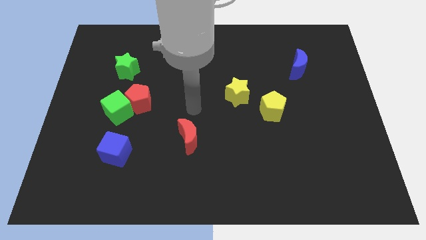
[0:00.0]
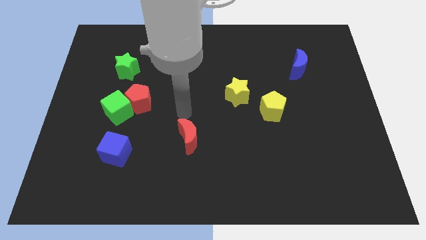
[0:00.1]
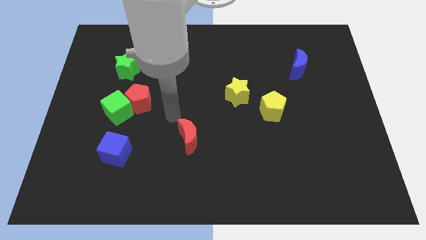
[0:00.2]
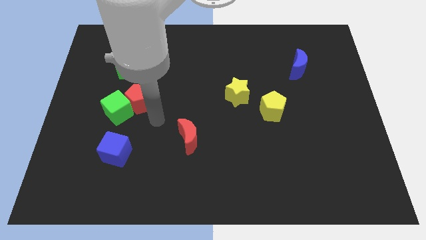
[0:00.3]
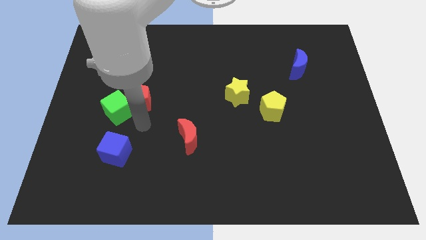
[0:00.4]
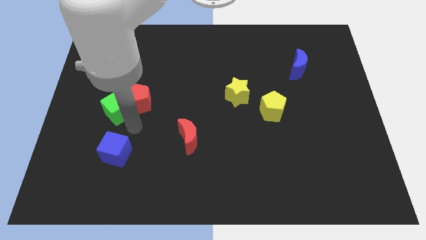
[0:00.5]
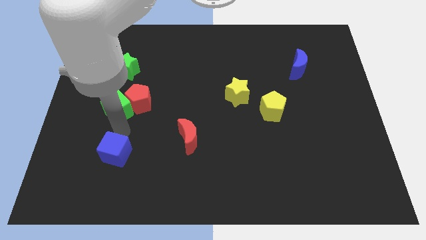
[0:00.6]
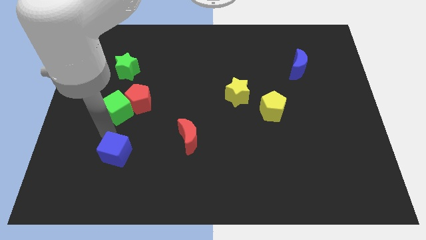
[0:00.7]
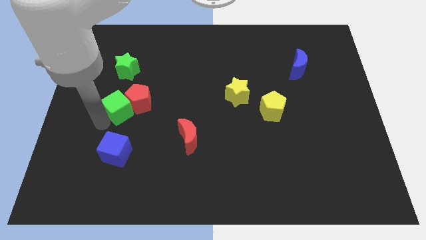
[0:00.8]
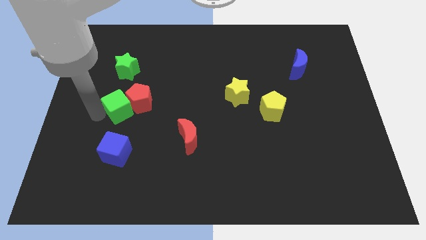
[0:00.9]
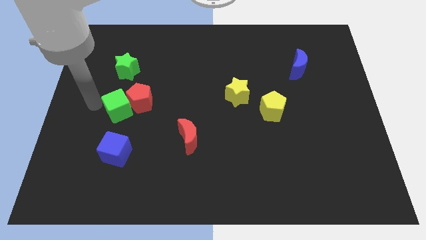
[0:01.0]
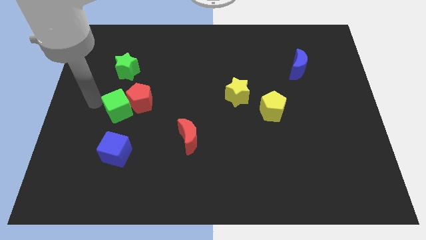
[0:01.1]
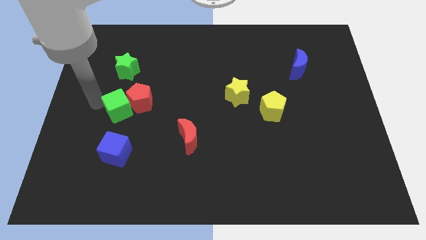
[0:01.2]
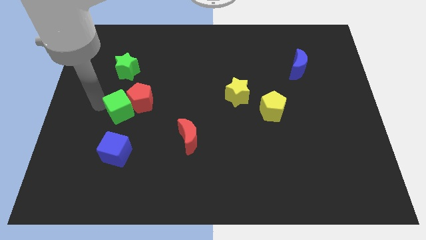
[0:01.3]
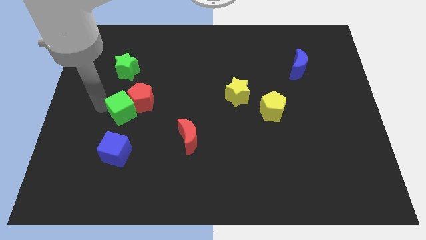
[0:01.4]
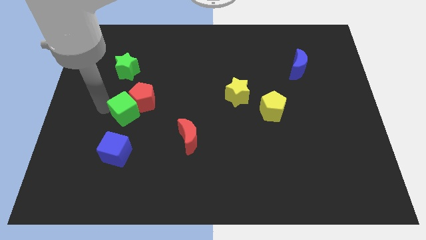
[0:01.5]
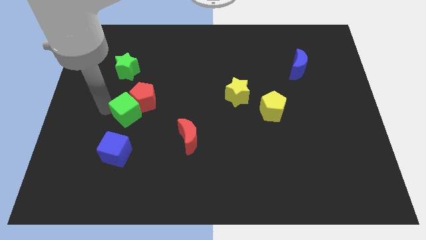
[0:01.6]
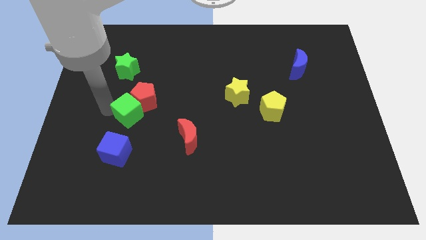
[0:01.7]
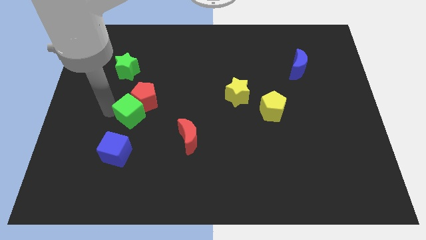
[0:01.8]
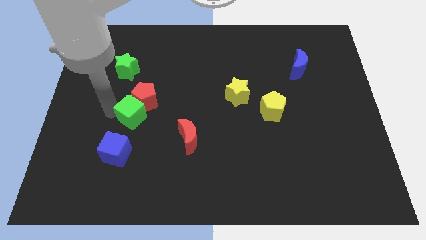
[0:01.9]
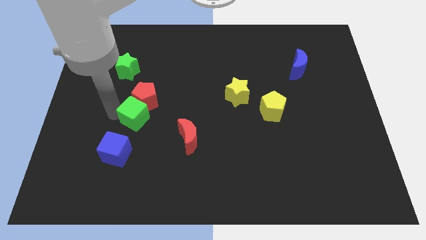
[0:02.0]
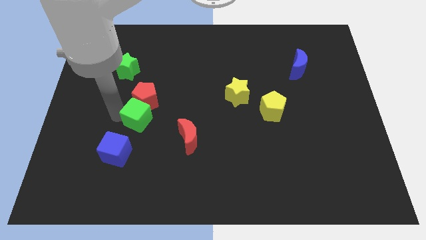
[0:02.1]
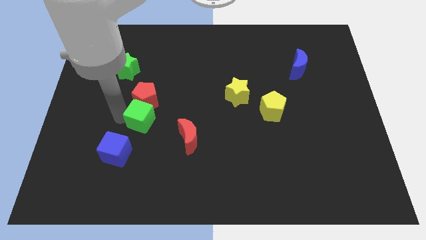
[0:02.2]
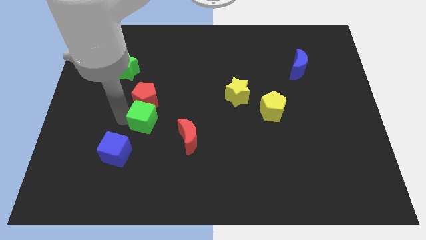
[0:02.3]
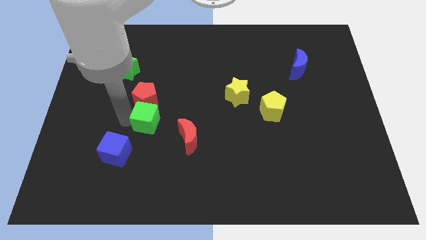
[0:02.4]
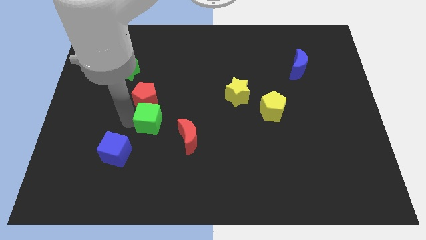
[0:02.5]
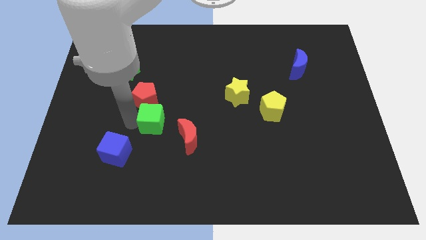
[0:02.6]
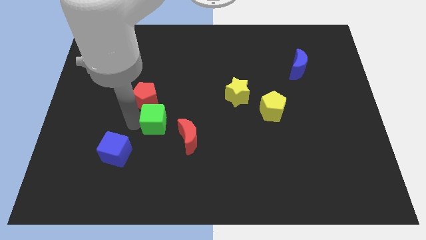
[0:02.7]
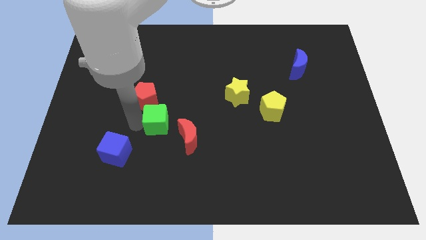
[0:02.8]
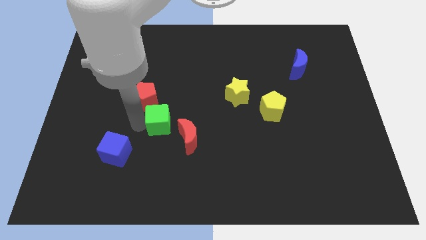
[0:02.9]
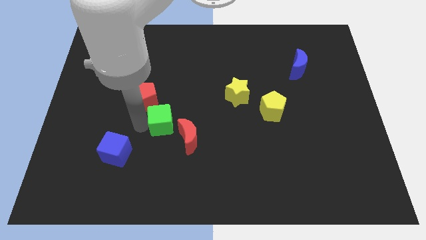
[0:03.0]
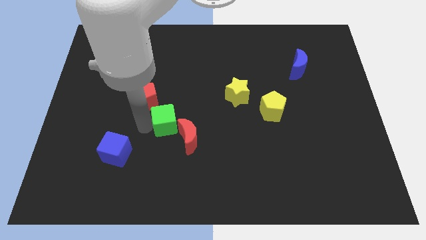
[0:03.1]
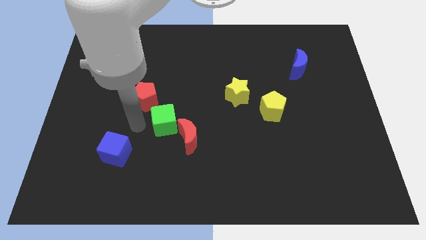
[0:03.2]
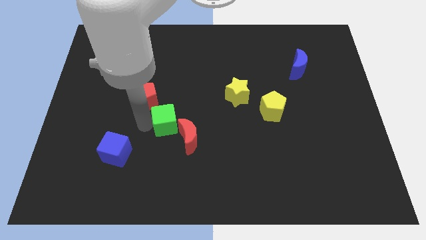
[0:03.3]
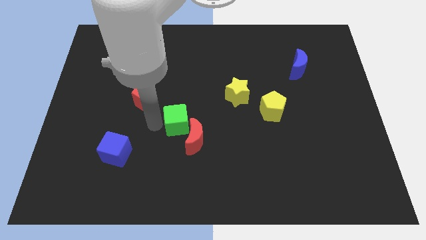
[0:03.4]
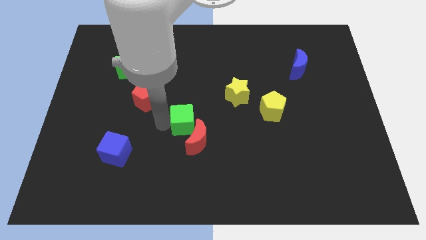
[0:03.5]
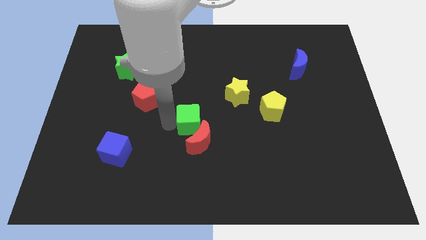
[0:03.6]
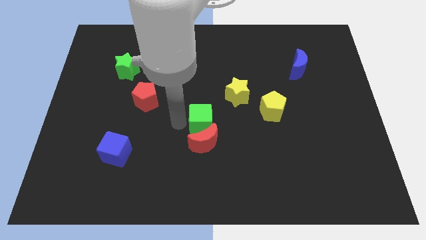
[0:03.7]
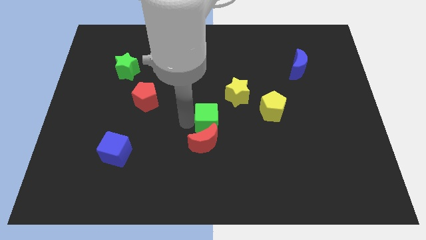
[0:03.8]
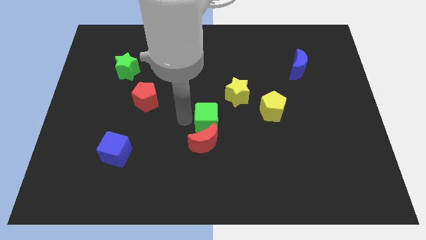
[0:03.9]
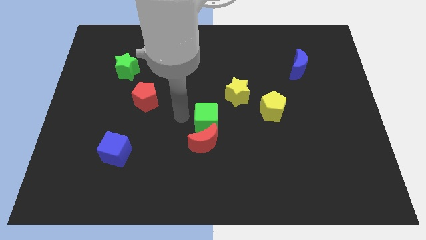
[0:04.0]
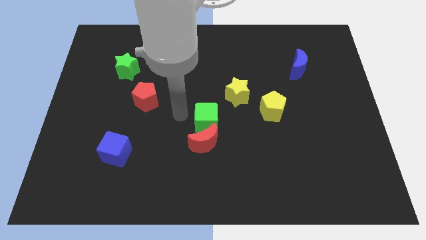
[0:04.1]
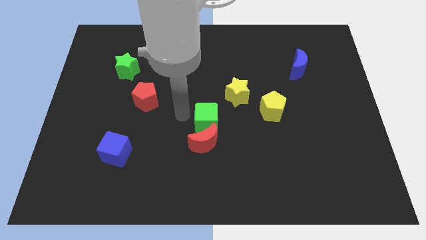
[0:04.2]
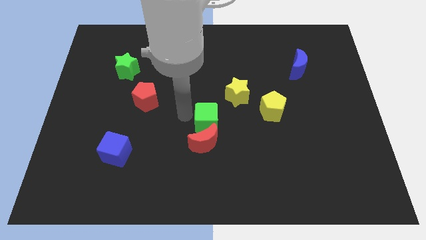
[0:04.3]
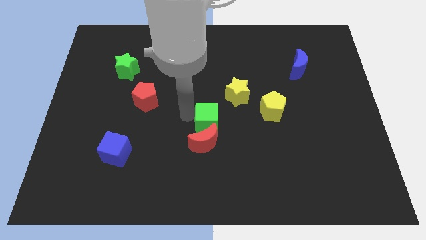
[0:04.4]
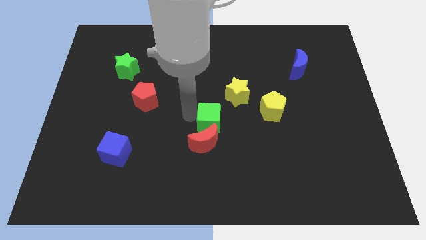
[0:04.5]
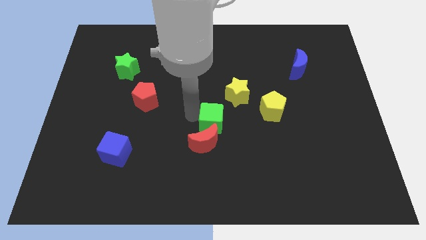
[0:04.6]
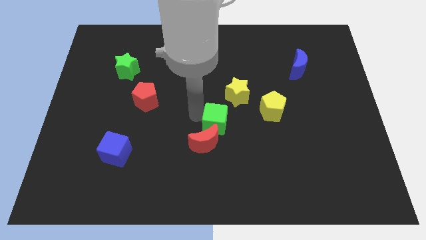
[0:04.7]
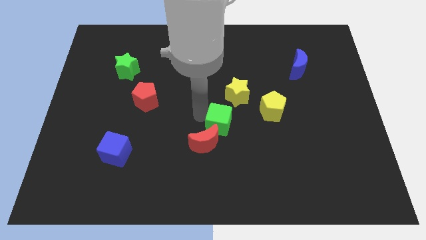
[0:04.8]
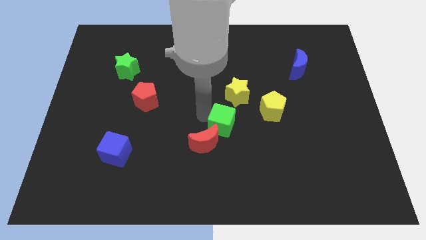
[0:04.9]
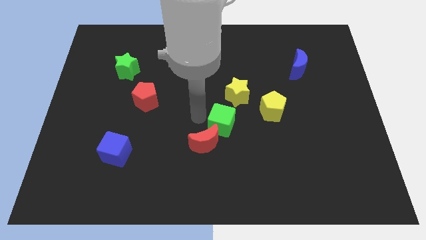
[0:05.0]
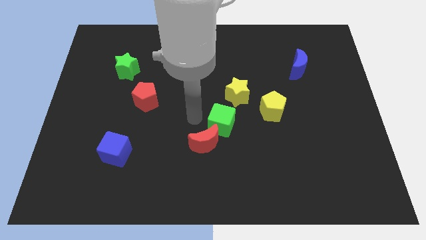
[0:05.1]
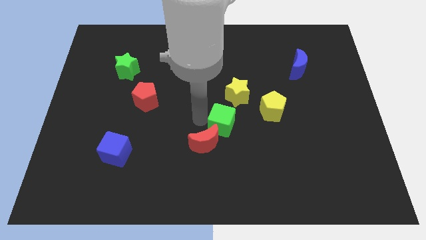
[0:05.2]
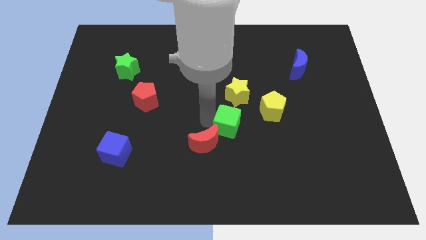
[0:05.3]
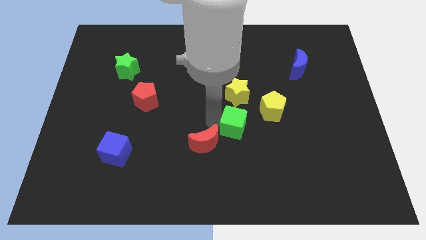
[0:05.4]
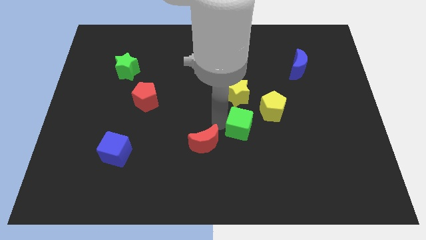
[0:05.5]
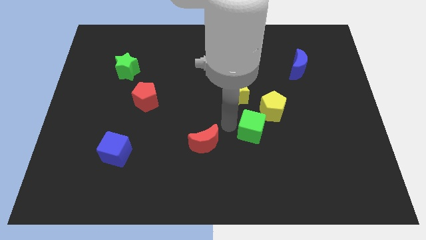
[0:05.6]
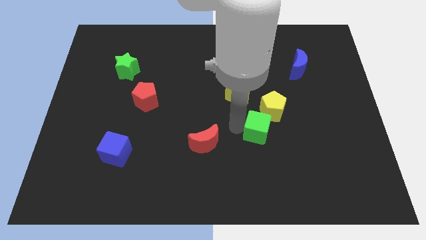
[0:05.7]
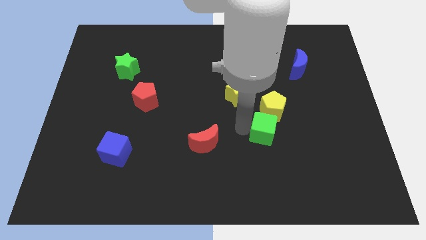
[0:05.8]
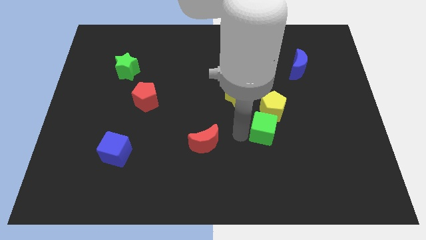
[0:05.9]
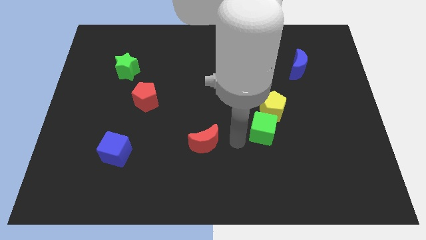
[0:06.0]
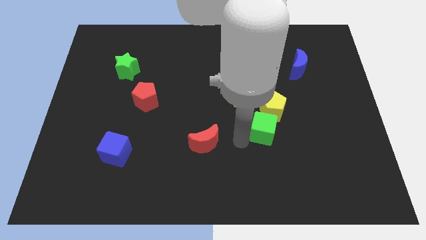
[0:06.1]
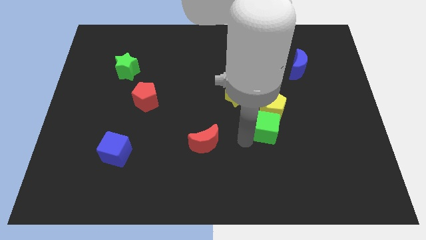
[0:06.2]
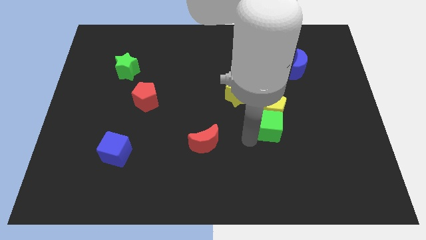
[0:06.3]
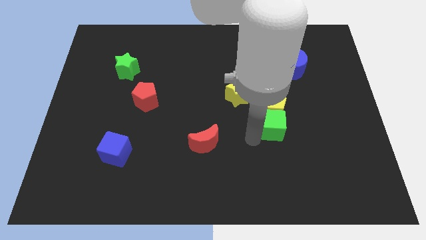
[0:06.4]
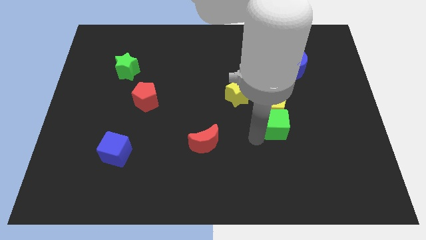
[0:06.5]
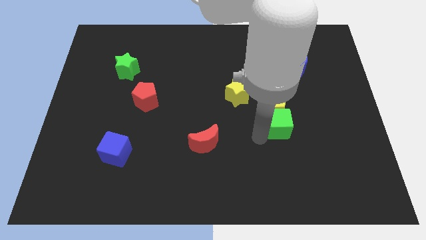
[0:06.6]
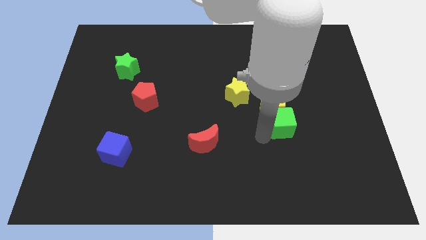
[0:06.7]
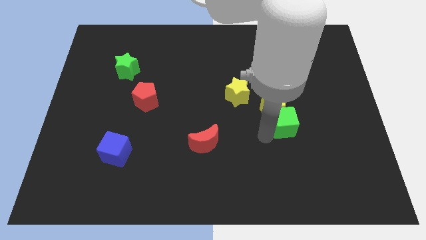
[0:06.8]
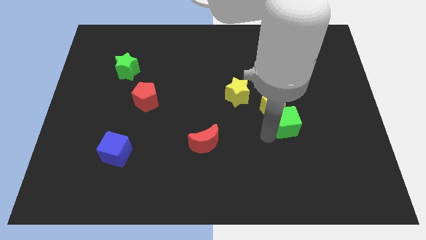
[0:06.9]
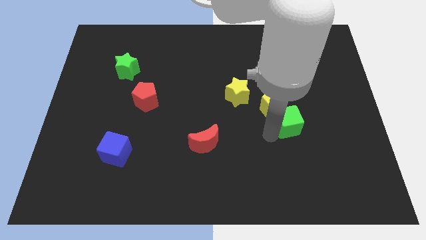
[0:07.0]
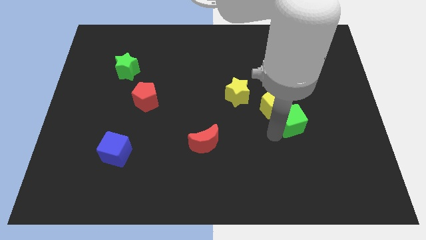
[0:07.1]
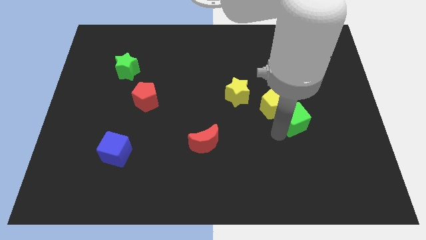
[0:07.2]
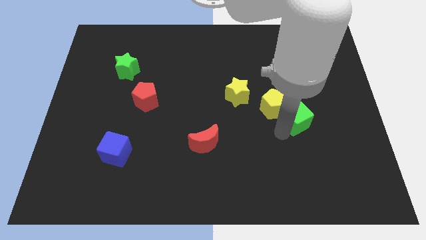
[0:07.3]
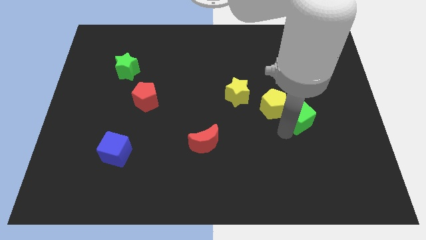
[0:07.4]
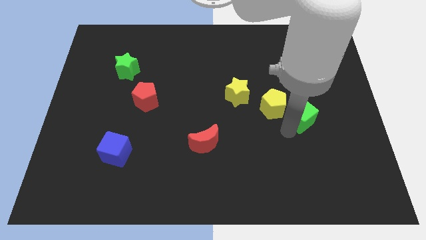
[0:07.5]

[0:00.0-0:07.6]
slide the green cube below the blue moon
